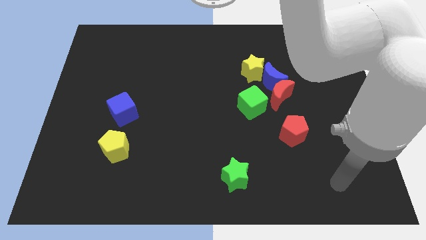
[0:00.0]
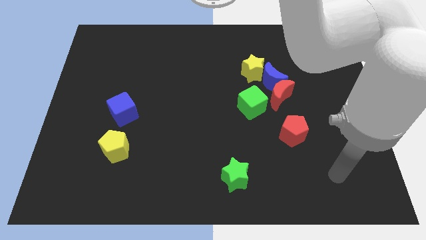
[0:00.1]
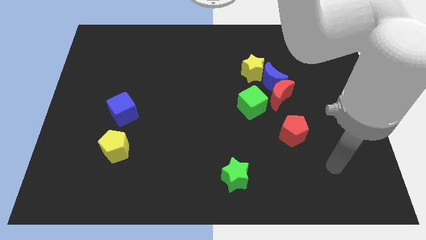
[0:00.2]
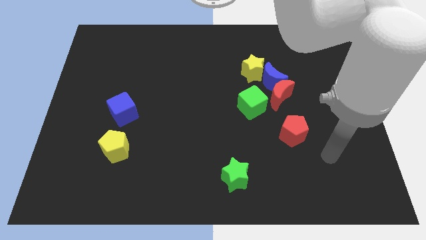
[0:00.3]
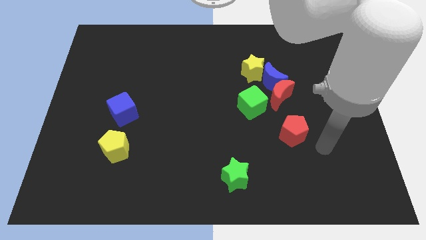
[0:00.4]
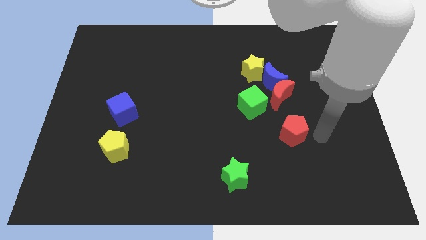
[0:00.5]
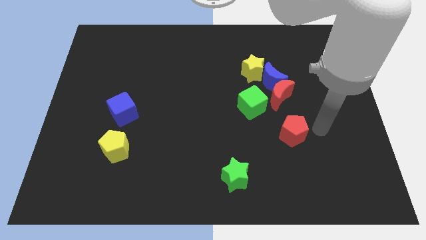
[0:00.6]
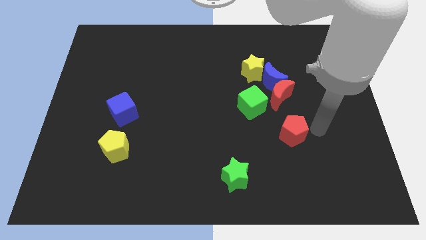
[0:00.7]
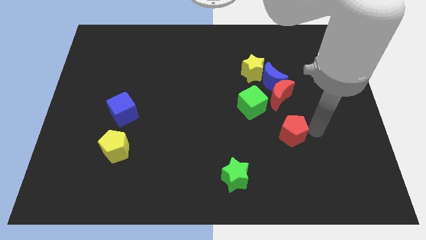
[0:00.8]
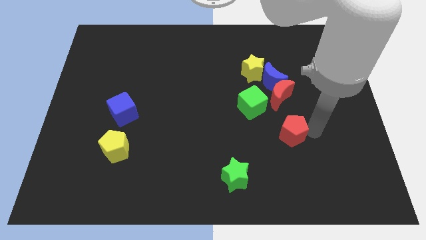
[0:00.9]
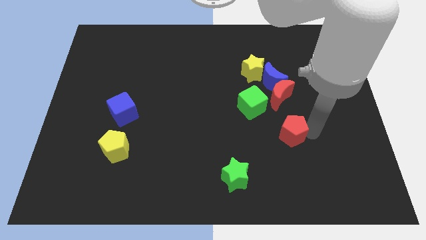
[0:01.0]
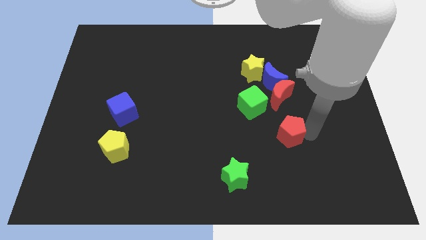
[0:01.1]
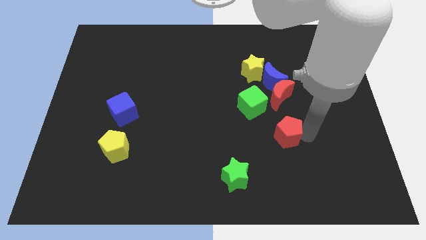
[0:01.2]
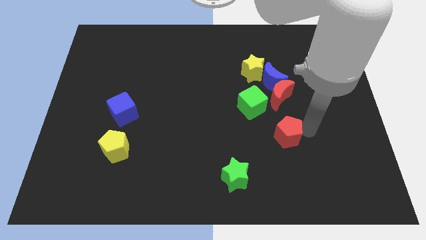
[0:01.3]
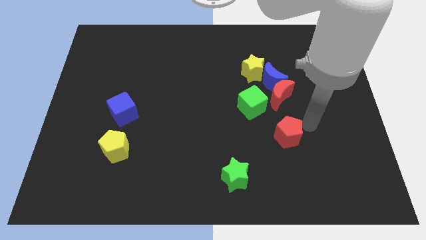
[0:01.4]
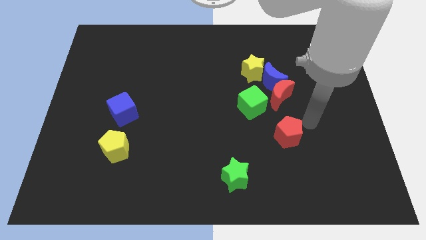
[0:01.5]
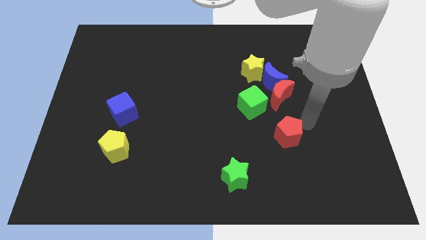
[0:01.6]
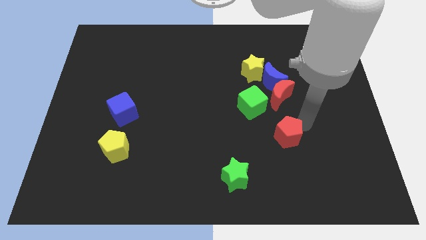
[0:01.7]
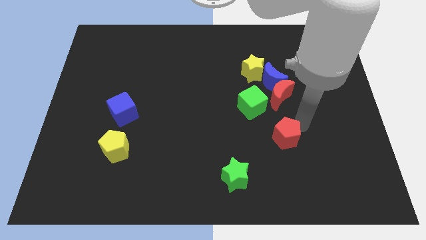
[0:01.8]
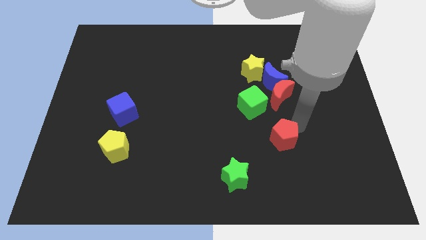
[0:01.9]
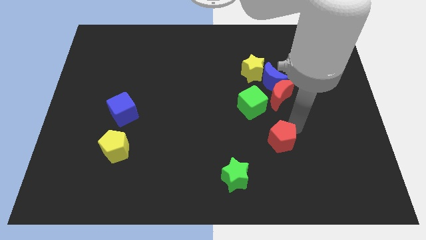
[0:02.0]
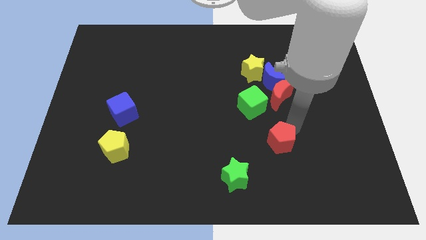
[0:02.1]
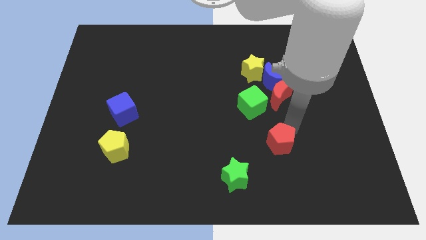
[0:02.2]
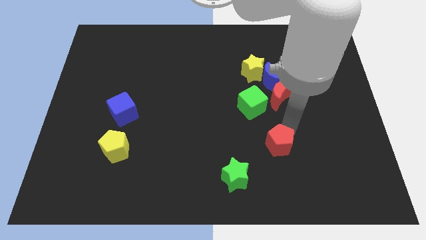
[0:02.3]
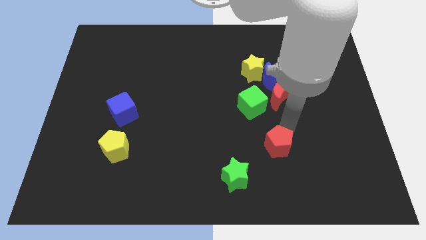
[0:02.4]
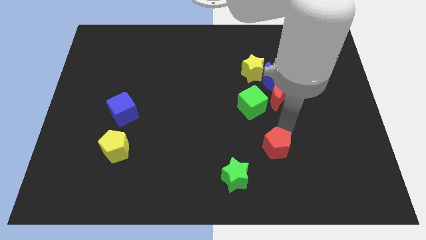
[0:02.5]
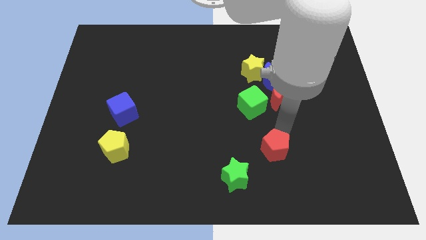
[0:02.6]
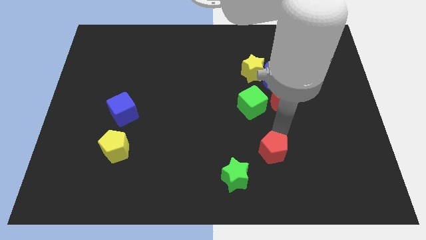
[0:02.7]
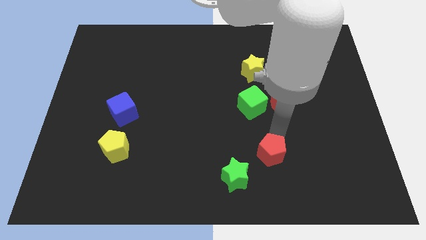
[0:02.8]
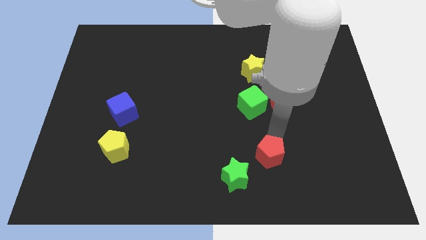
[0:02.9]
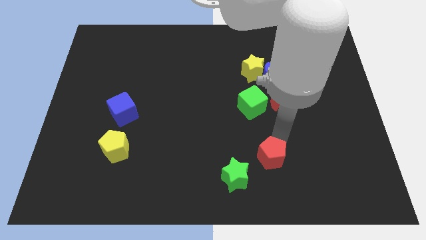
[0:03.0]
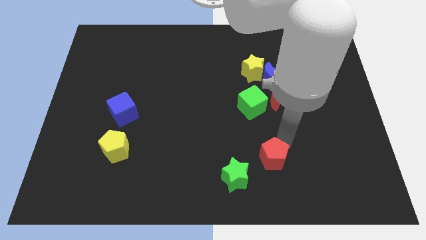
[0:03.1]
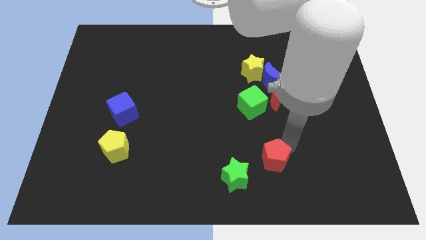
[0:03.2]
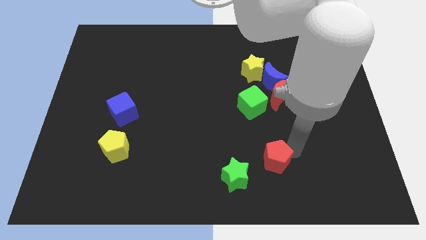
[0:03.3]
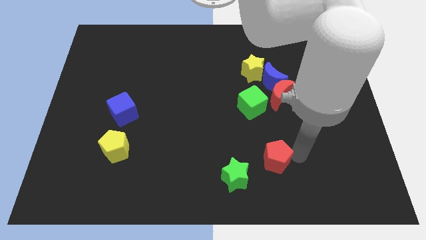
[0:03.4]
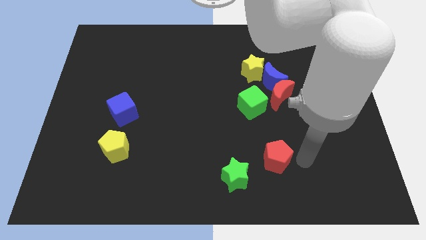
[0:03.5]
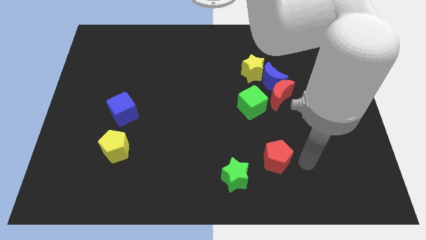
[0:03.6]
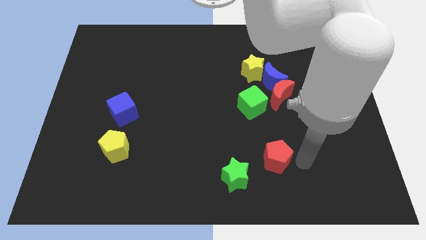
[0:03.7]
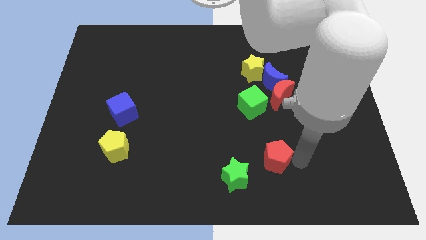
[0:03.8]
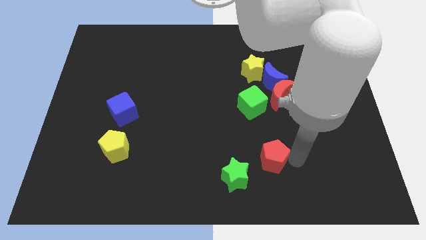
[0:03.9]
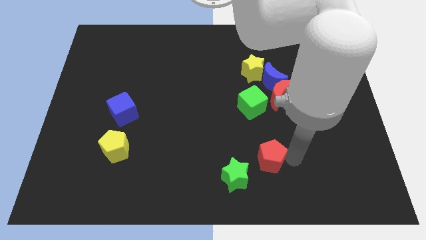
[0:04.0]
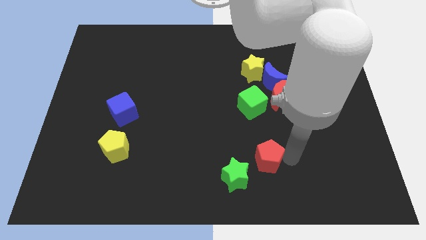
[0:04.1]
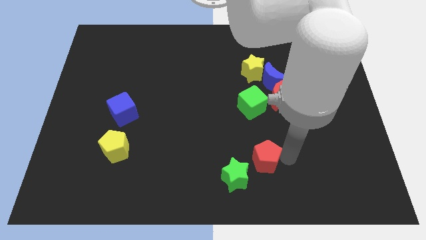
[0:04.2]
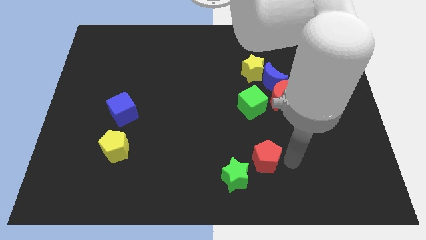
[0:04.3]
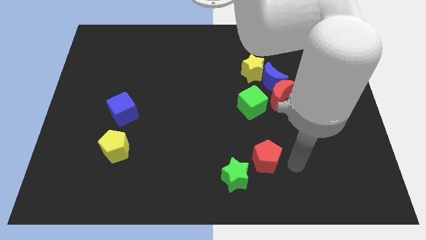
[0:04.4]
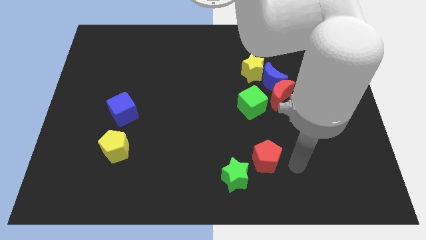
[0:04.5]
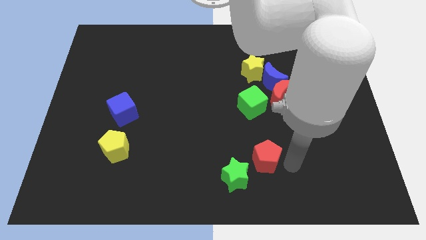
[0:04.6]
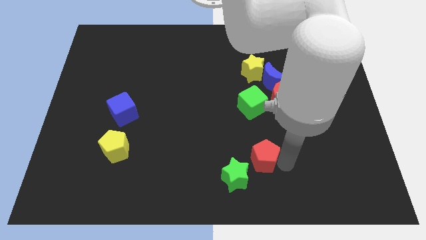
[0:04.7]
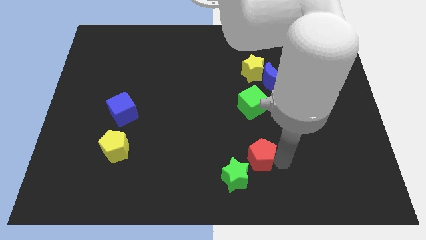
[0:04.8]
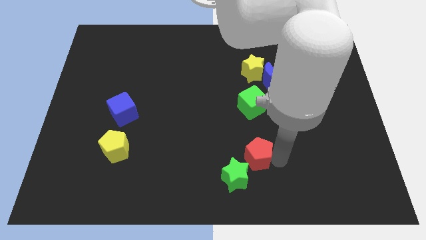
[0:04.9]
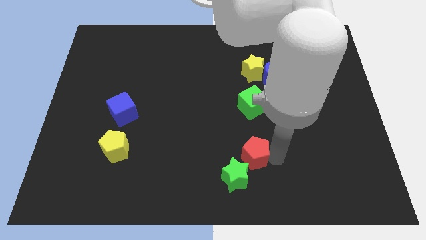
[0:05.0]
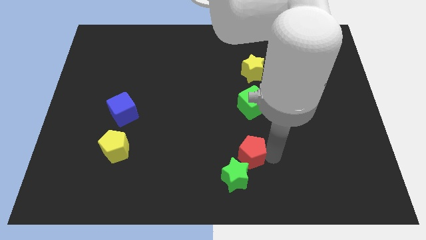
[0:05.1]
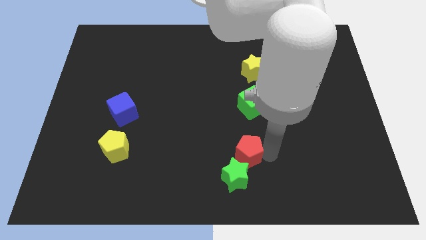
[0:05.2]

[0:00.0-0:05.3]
move the red pentagon next to the green star

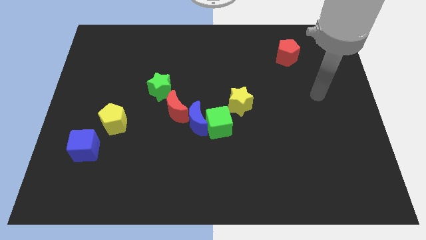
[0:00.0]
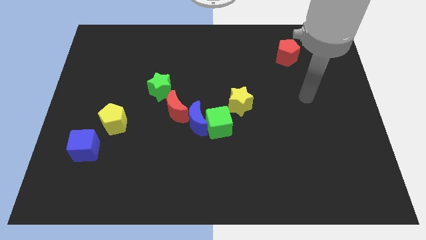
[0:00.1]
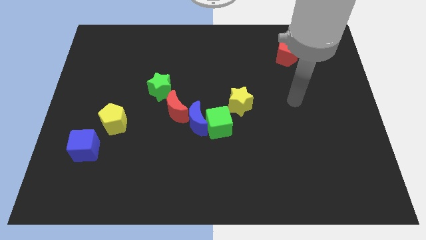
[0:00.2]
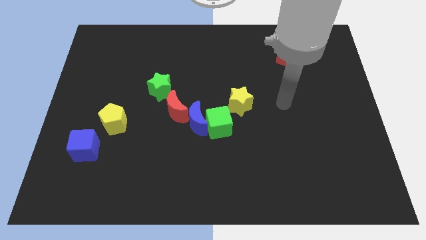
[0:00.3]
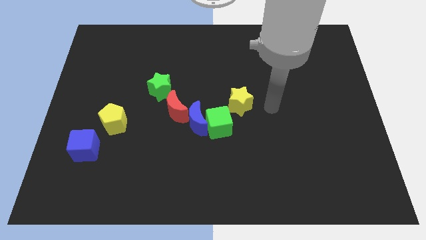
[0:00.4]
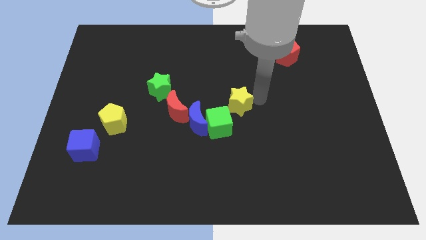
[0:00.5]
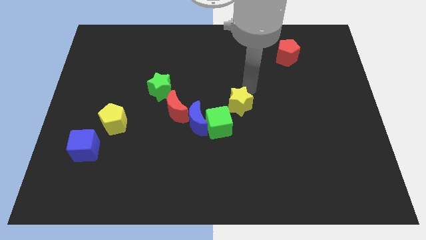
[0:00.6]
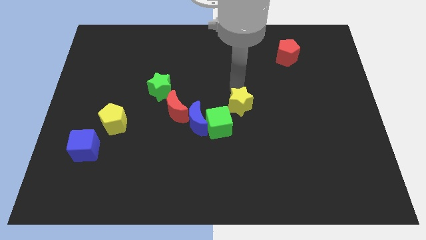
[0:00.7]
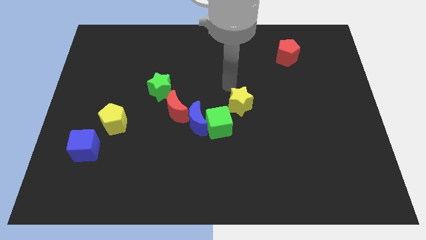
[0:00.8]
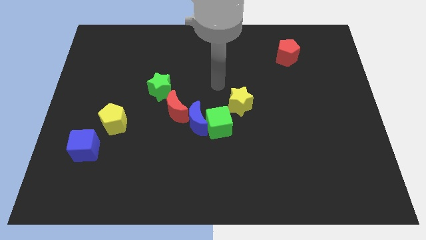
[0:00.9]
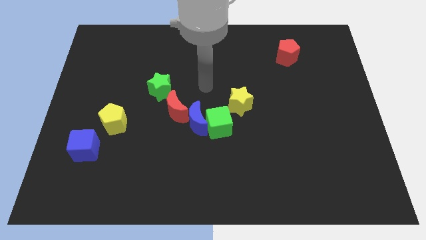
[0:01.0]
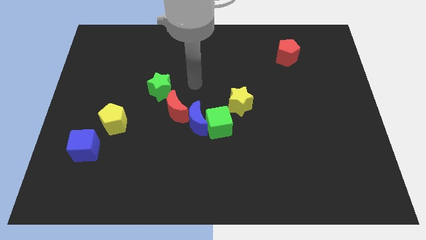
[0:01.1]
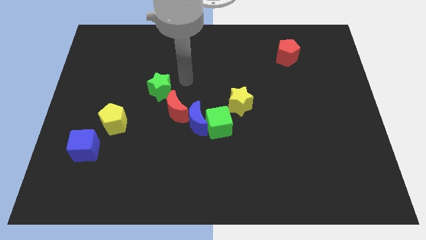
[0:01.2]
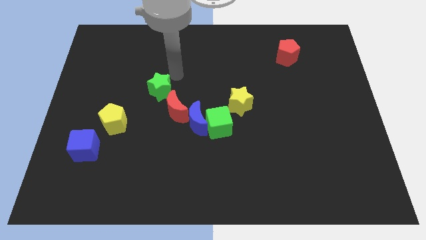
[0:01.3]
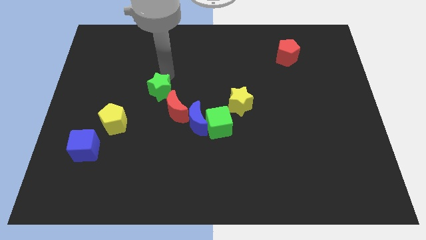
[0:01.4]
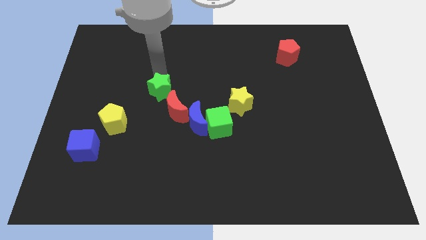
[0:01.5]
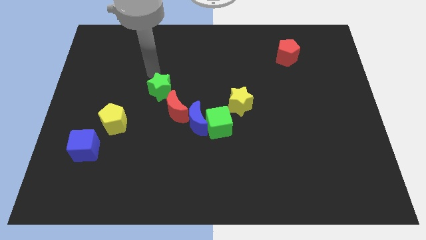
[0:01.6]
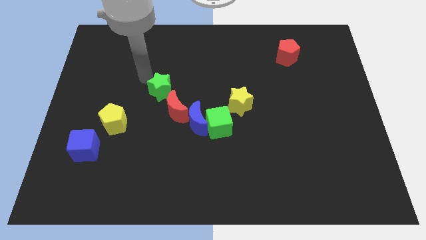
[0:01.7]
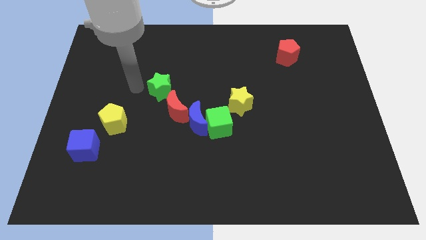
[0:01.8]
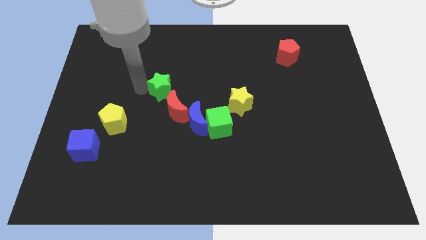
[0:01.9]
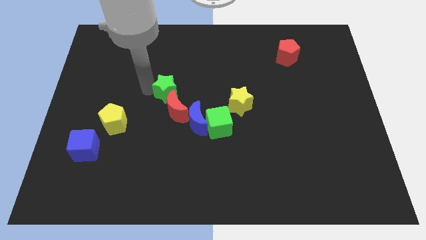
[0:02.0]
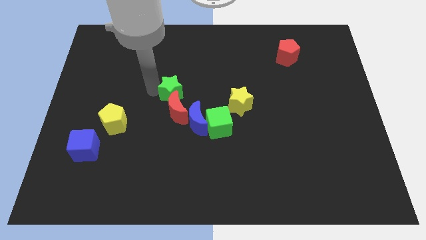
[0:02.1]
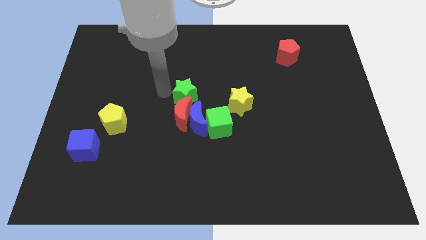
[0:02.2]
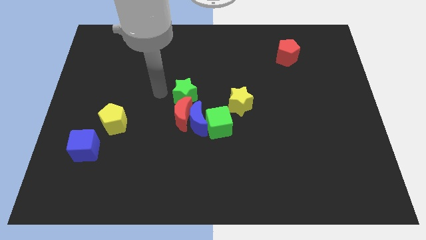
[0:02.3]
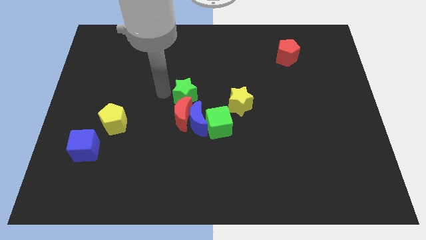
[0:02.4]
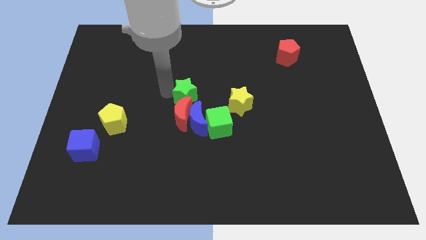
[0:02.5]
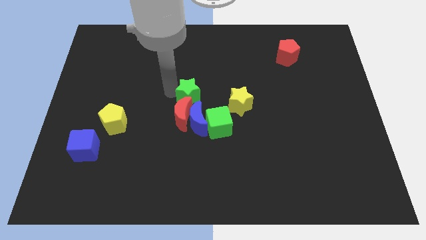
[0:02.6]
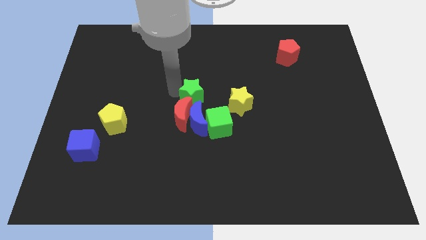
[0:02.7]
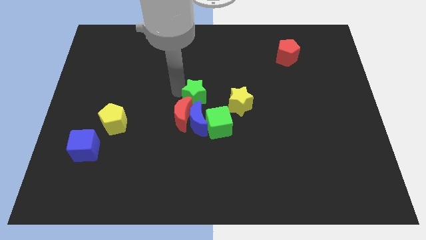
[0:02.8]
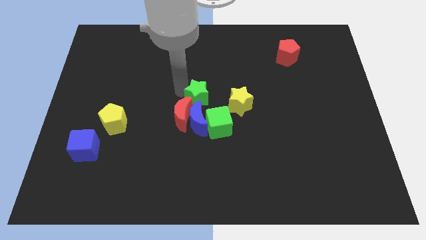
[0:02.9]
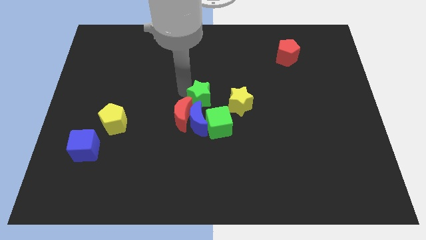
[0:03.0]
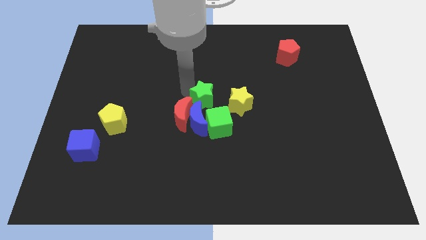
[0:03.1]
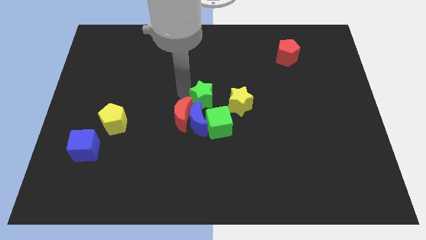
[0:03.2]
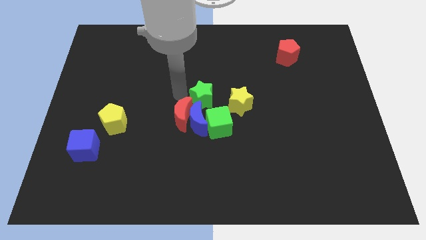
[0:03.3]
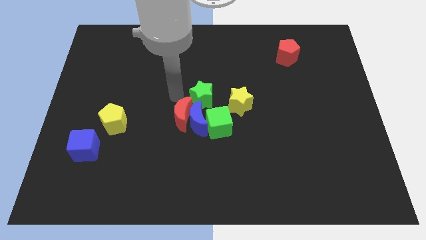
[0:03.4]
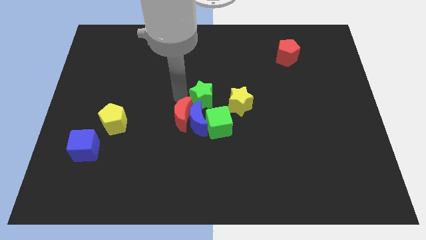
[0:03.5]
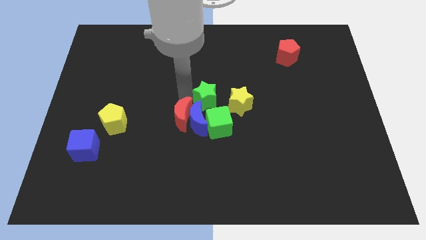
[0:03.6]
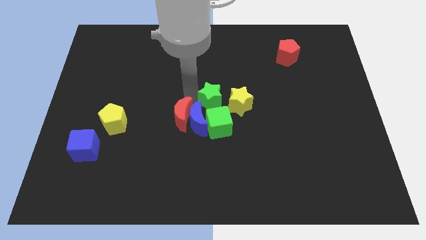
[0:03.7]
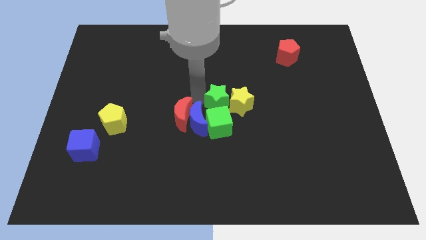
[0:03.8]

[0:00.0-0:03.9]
slide the green star to the yellow star
